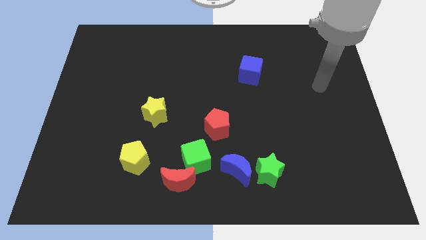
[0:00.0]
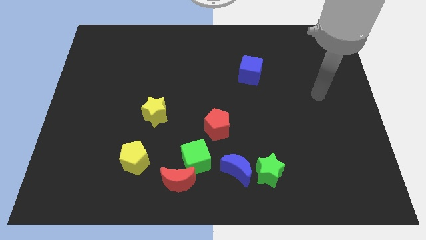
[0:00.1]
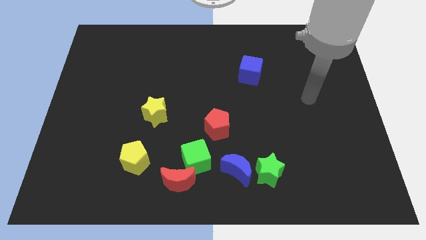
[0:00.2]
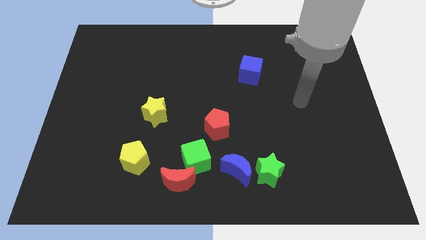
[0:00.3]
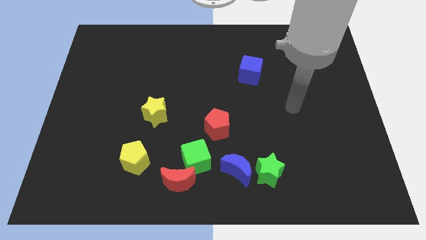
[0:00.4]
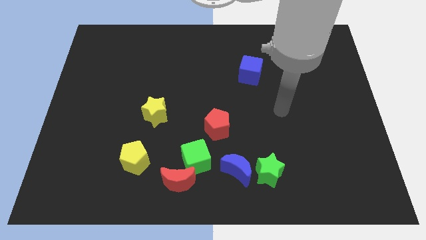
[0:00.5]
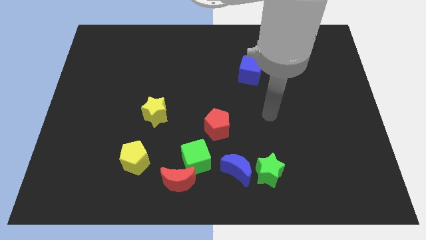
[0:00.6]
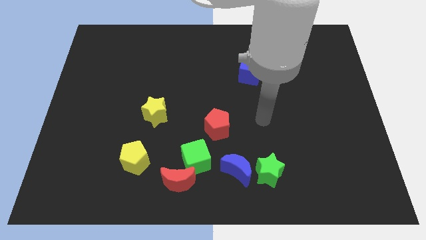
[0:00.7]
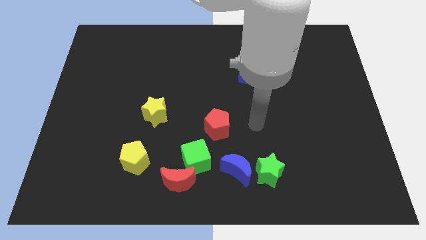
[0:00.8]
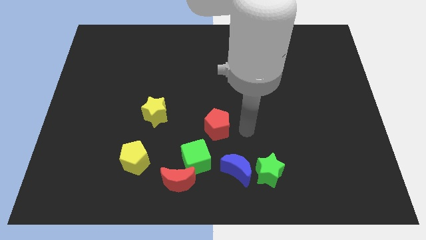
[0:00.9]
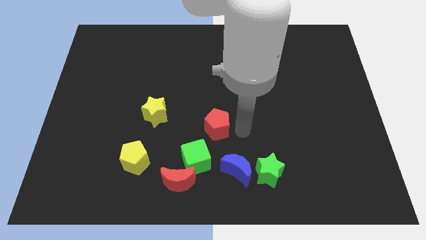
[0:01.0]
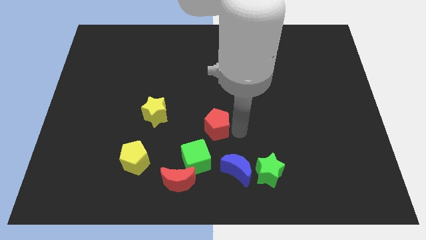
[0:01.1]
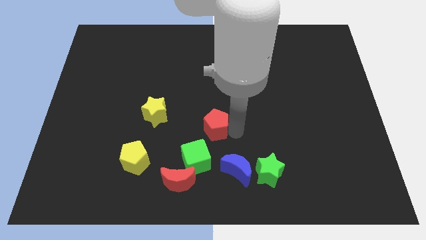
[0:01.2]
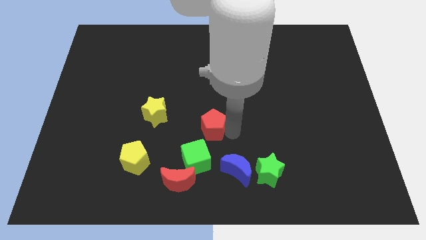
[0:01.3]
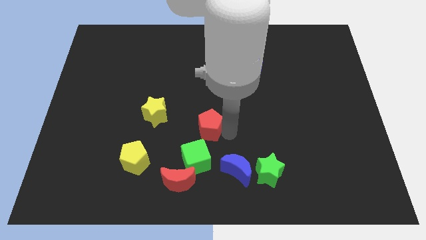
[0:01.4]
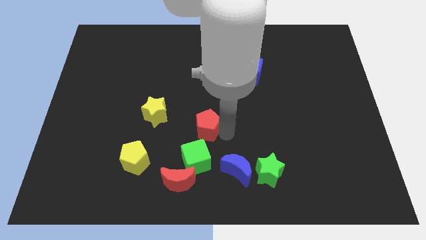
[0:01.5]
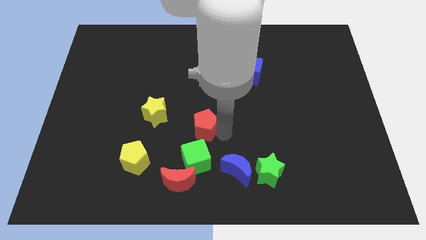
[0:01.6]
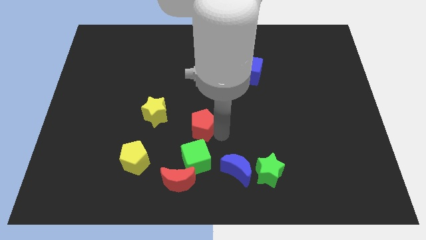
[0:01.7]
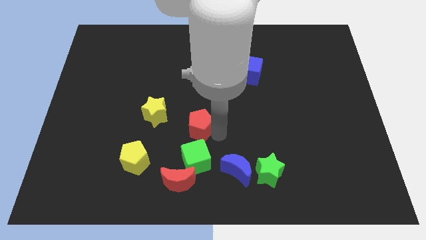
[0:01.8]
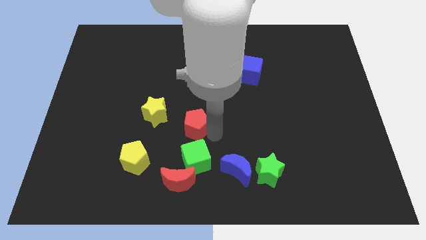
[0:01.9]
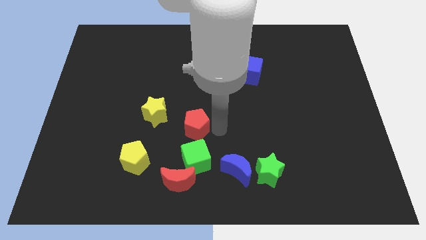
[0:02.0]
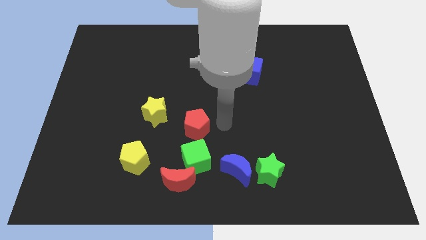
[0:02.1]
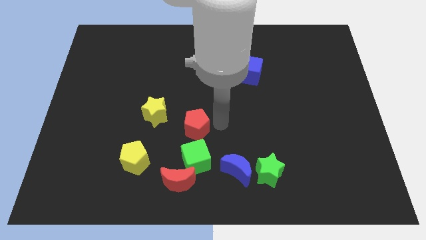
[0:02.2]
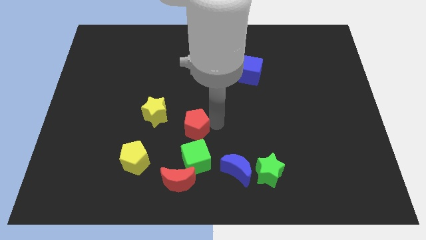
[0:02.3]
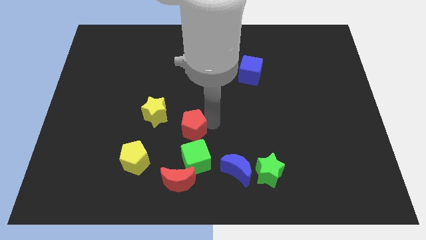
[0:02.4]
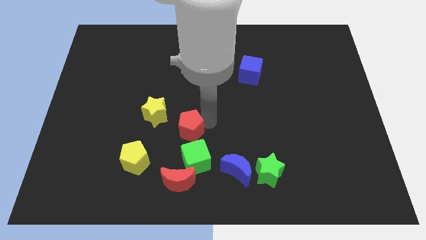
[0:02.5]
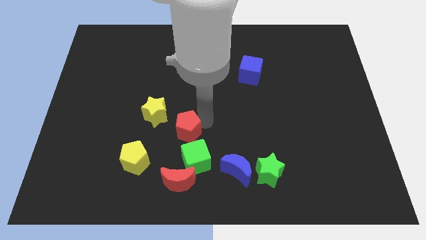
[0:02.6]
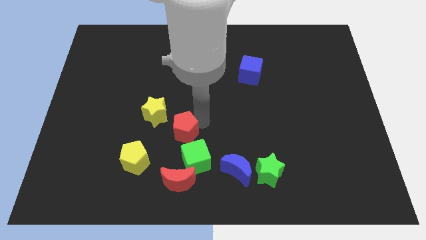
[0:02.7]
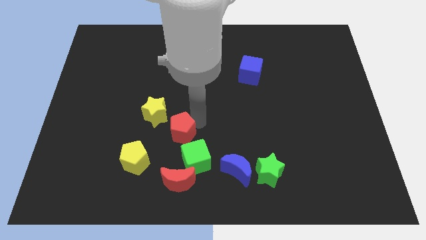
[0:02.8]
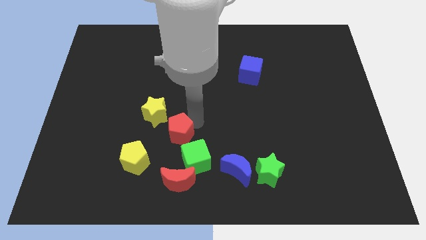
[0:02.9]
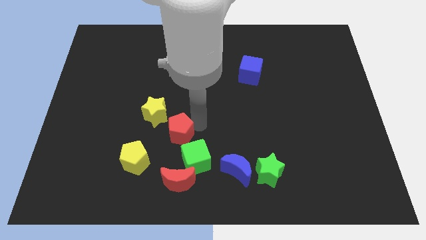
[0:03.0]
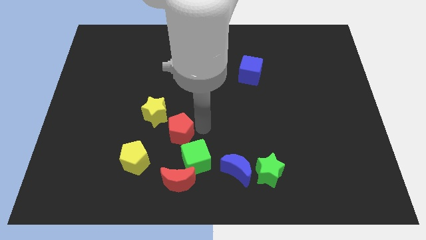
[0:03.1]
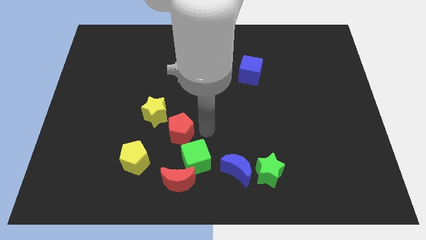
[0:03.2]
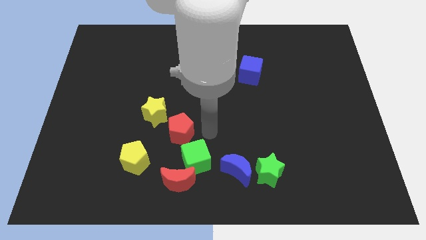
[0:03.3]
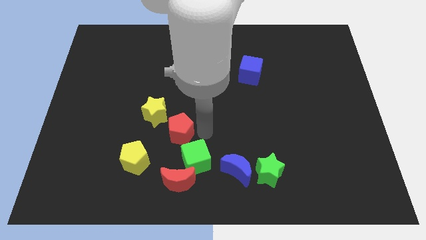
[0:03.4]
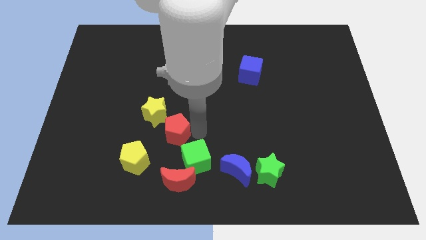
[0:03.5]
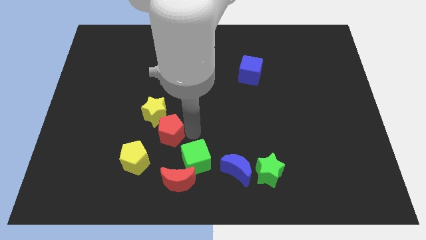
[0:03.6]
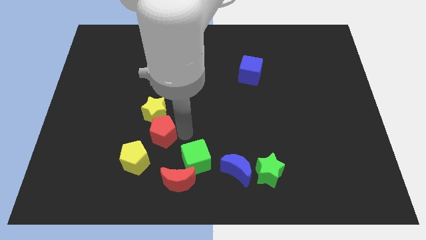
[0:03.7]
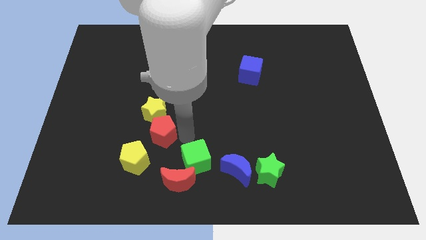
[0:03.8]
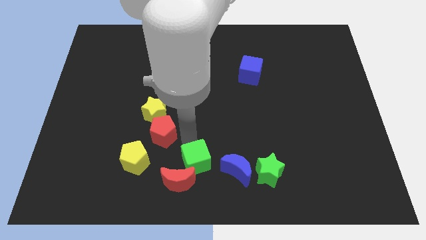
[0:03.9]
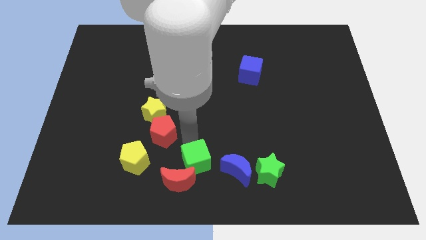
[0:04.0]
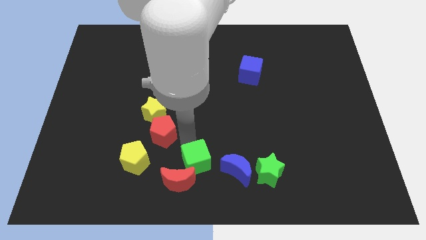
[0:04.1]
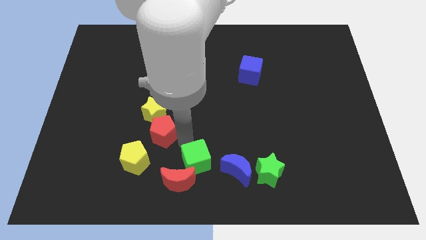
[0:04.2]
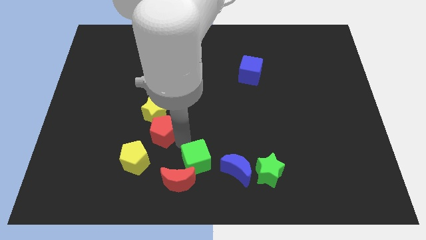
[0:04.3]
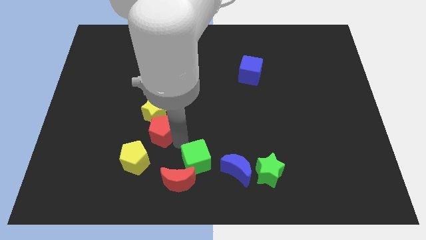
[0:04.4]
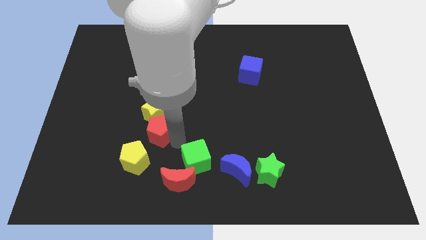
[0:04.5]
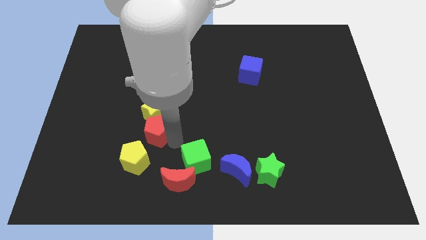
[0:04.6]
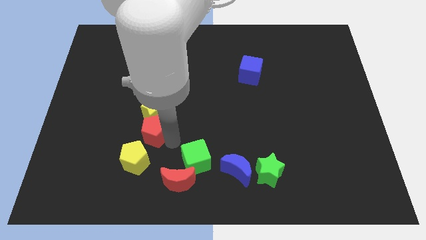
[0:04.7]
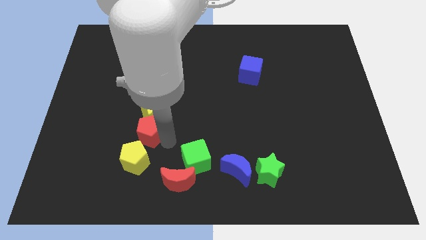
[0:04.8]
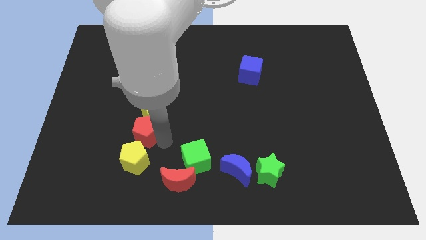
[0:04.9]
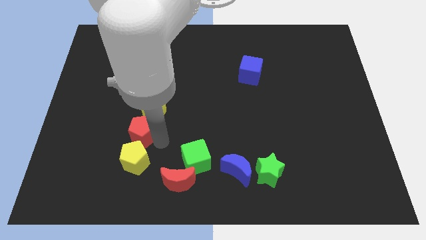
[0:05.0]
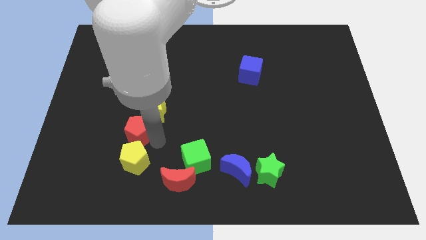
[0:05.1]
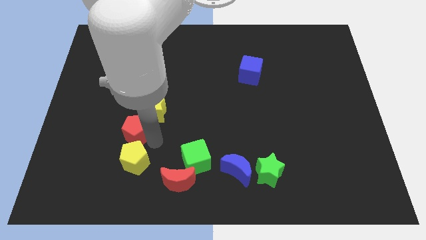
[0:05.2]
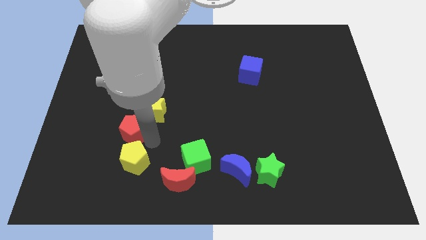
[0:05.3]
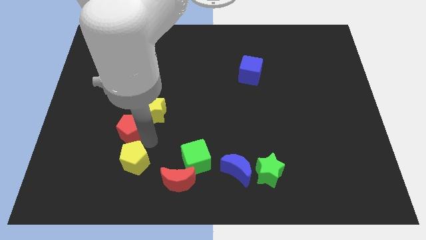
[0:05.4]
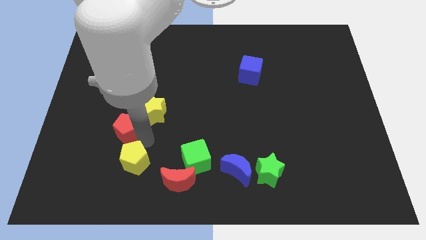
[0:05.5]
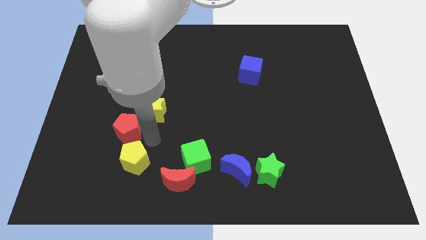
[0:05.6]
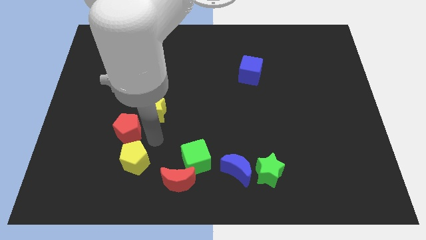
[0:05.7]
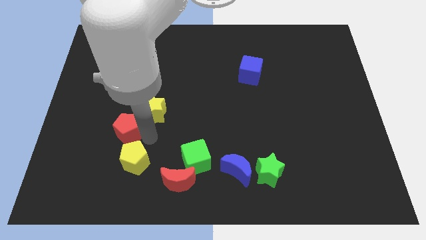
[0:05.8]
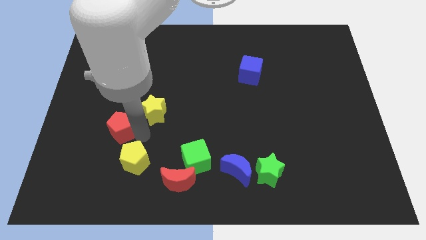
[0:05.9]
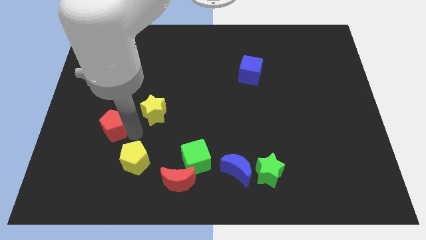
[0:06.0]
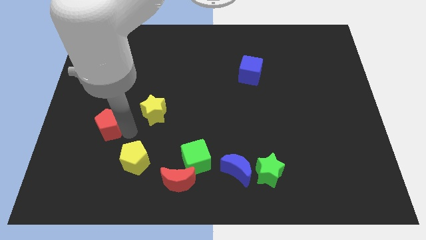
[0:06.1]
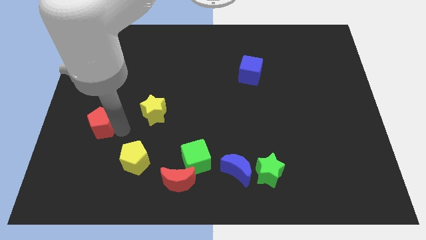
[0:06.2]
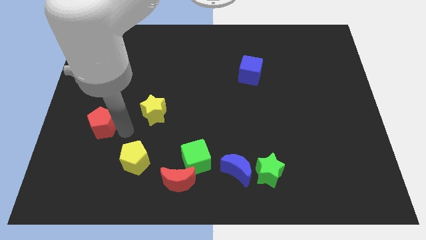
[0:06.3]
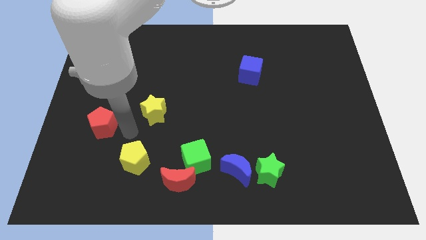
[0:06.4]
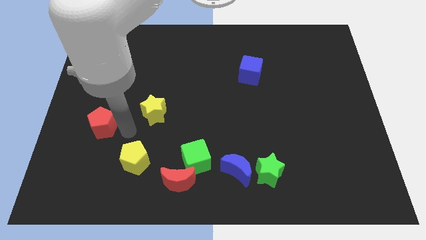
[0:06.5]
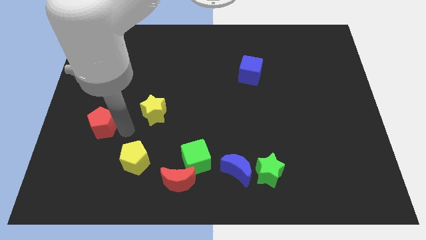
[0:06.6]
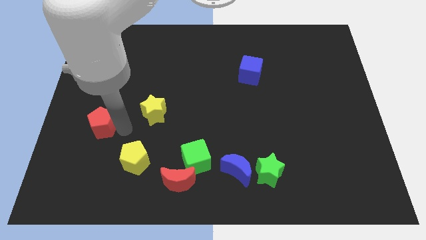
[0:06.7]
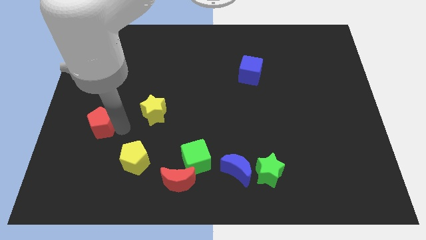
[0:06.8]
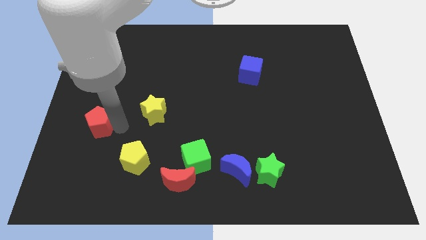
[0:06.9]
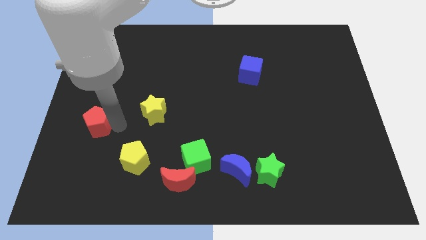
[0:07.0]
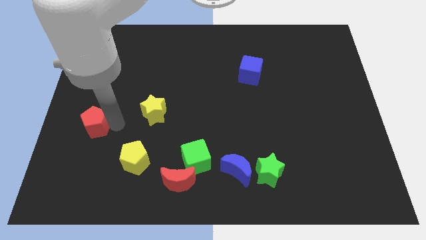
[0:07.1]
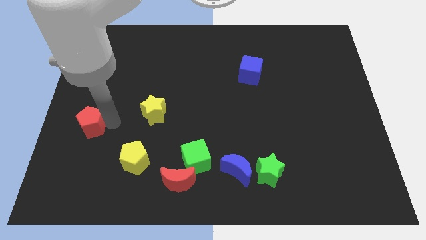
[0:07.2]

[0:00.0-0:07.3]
slide the red pentagon to the left side
